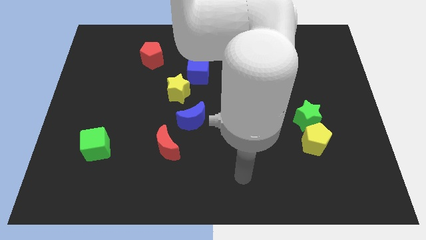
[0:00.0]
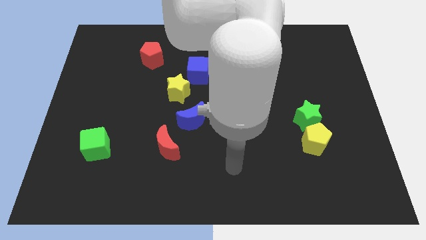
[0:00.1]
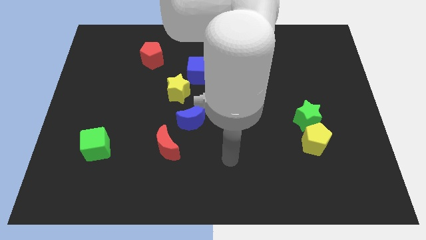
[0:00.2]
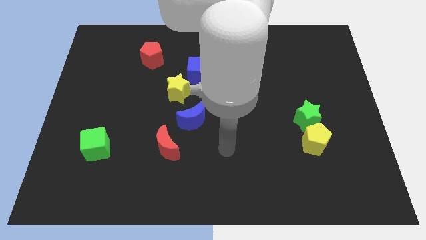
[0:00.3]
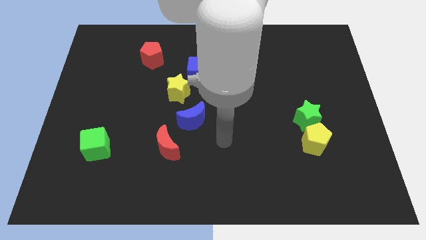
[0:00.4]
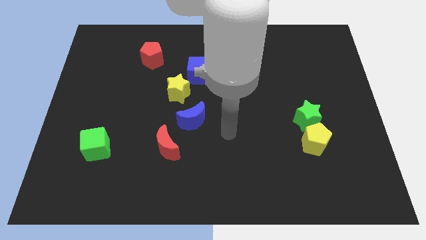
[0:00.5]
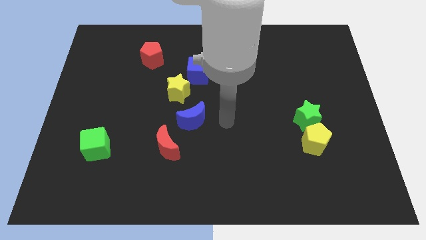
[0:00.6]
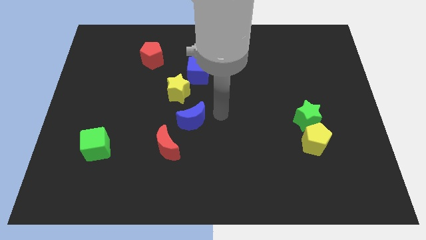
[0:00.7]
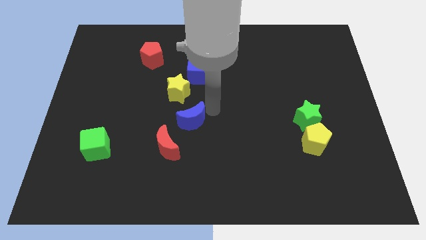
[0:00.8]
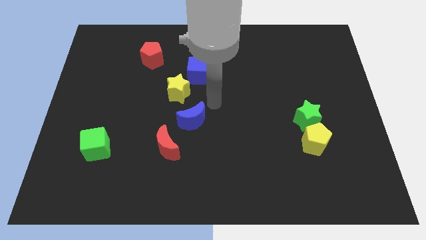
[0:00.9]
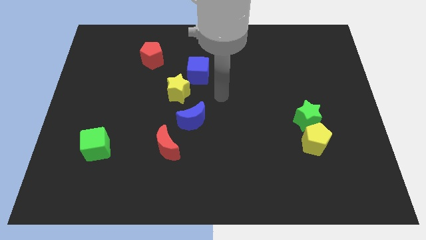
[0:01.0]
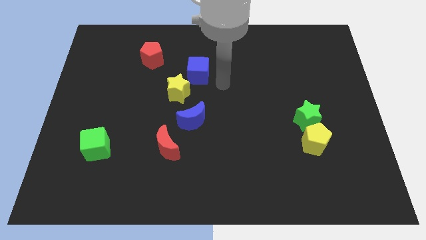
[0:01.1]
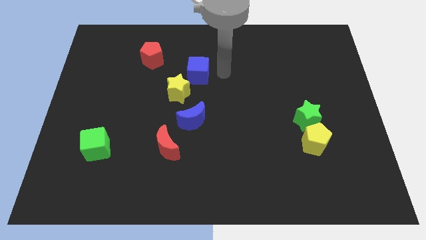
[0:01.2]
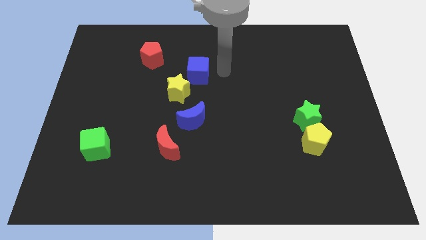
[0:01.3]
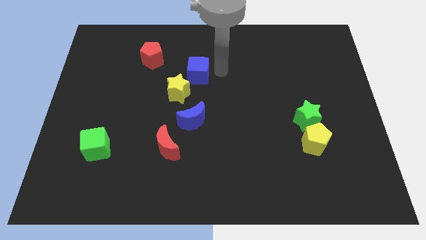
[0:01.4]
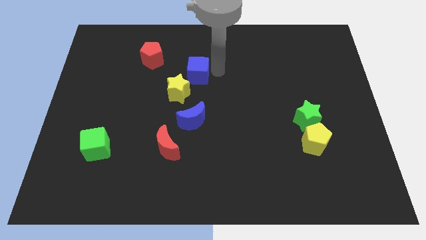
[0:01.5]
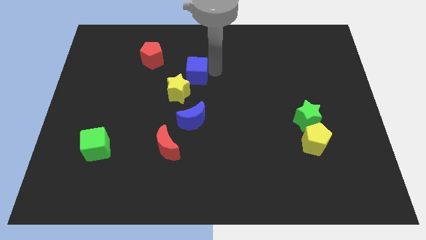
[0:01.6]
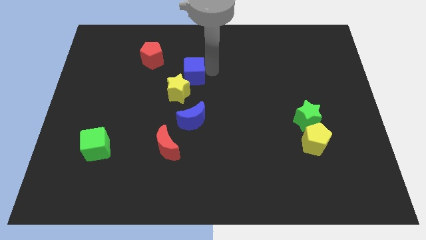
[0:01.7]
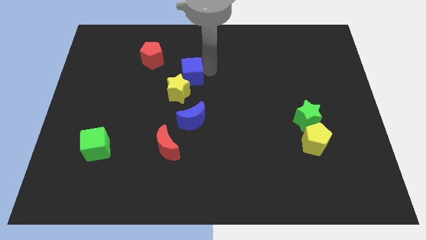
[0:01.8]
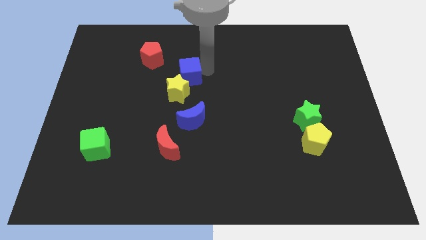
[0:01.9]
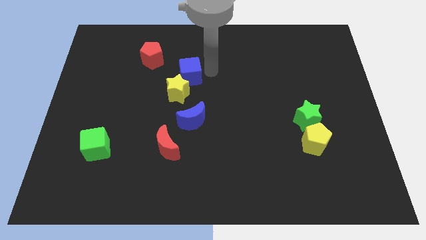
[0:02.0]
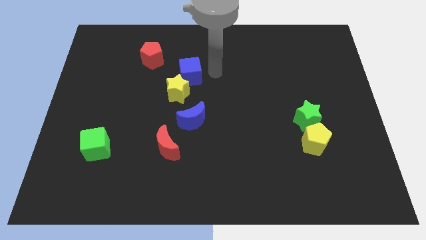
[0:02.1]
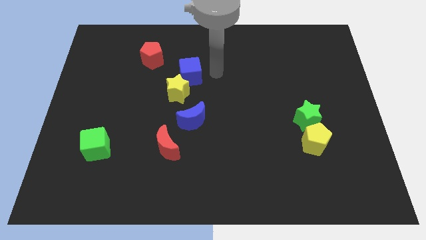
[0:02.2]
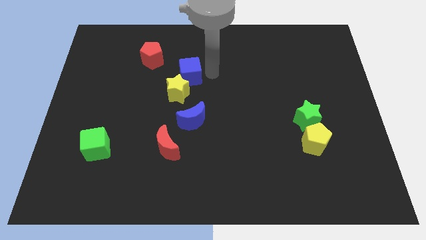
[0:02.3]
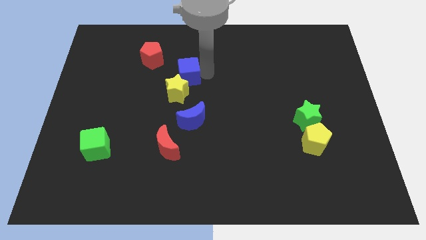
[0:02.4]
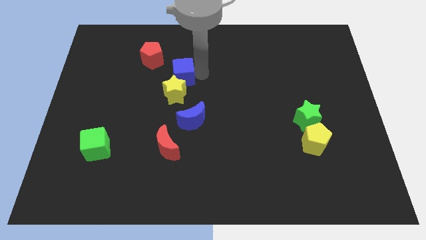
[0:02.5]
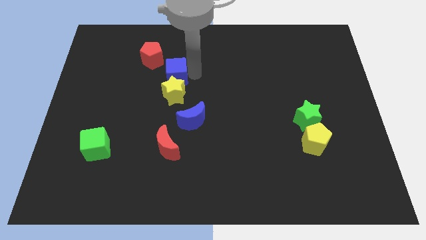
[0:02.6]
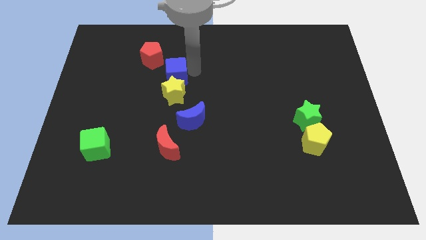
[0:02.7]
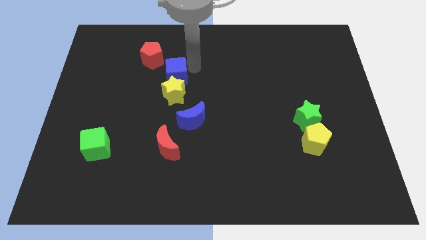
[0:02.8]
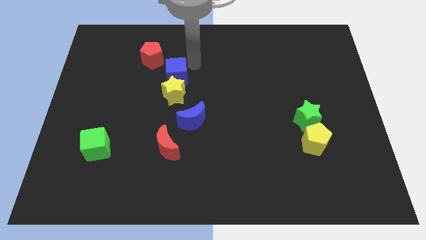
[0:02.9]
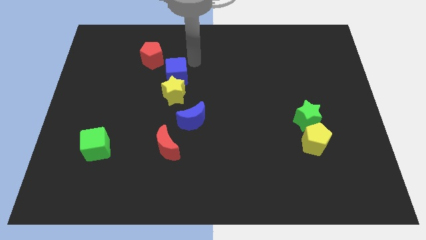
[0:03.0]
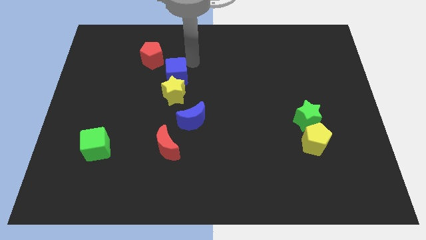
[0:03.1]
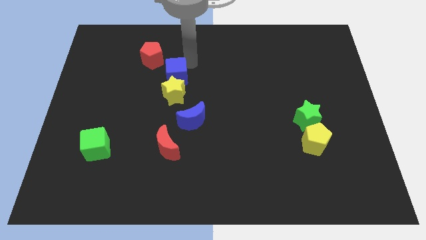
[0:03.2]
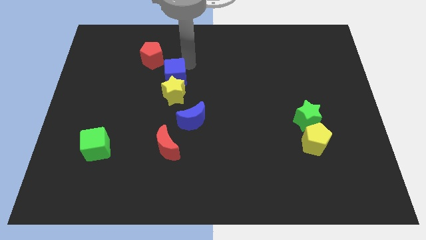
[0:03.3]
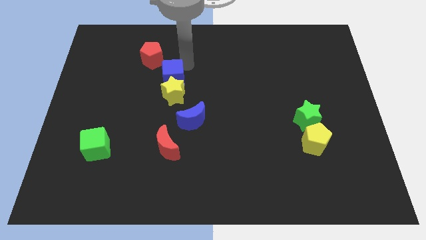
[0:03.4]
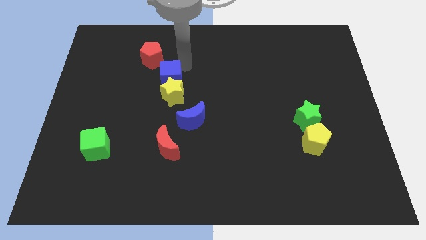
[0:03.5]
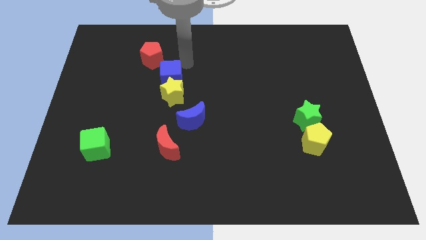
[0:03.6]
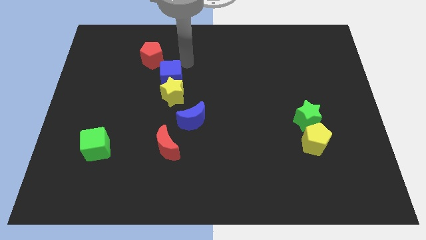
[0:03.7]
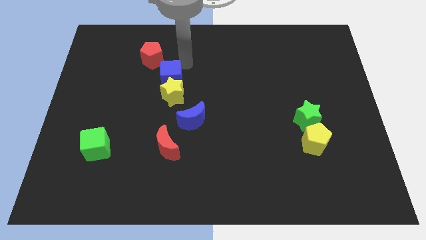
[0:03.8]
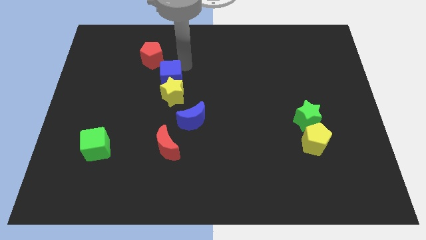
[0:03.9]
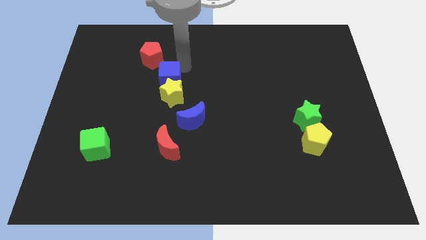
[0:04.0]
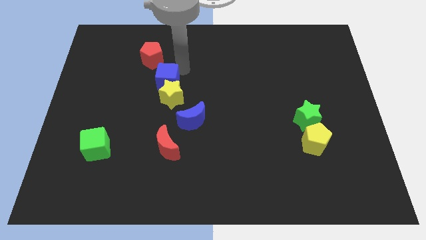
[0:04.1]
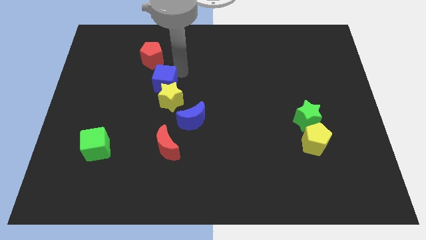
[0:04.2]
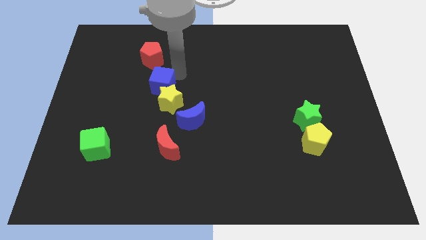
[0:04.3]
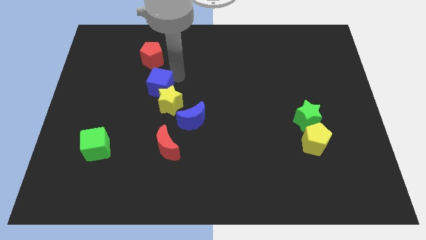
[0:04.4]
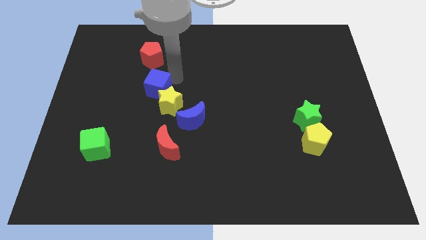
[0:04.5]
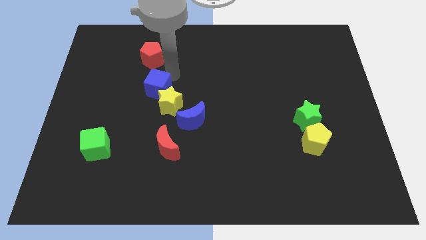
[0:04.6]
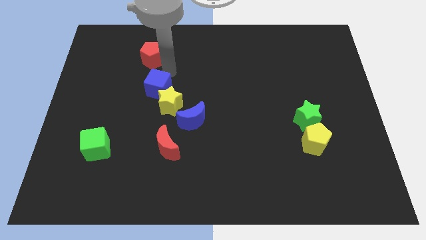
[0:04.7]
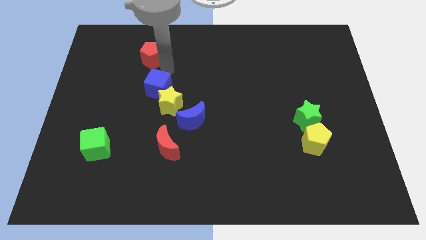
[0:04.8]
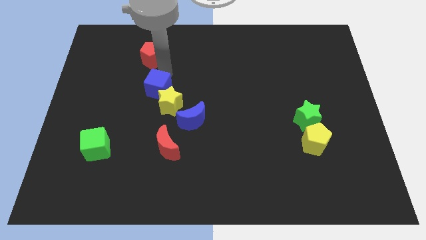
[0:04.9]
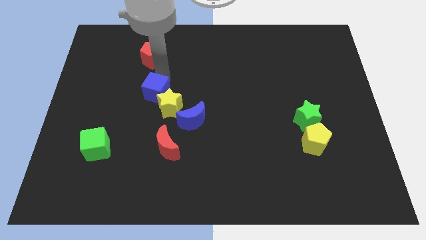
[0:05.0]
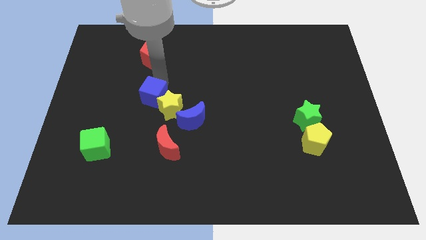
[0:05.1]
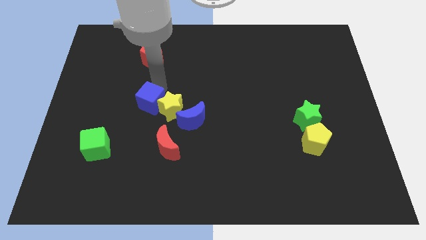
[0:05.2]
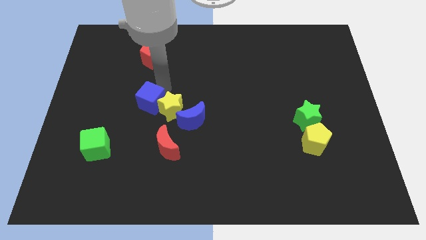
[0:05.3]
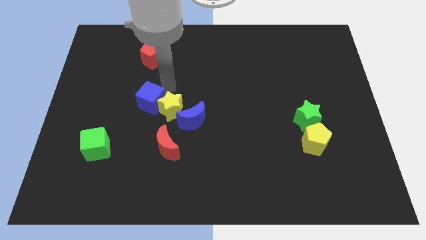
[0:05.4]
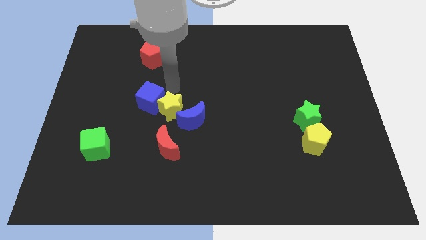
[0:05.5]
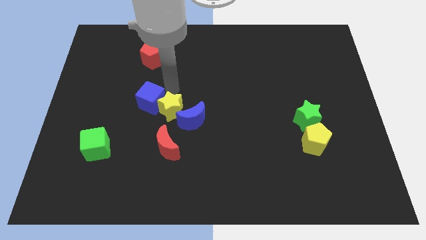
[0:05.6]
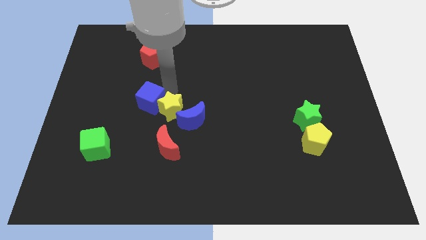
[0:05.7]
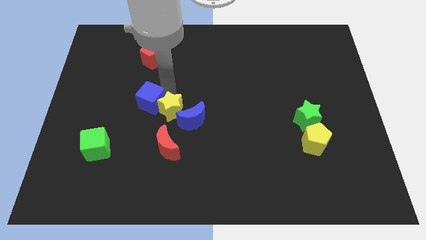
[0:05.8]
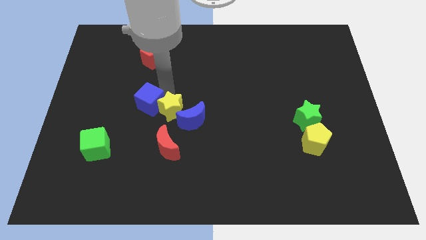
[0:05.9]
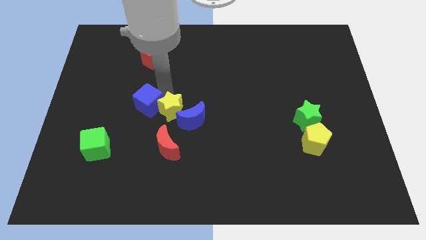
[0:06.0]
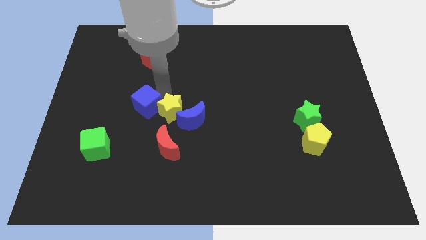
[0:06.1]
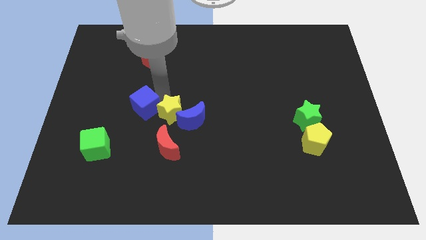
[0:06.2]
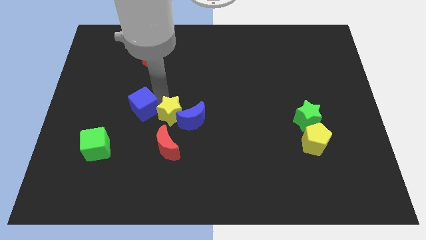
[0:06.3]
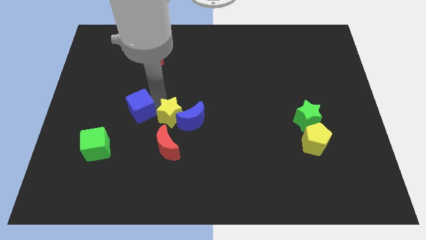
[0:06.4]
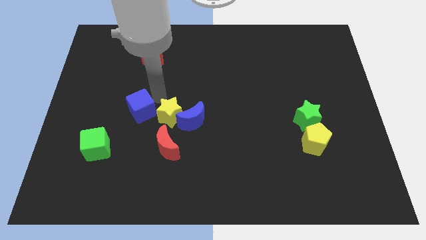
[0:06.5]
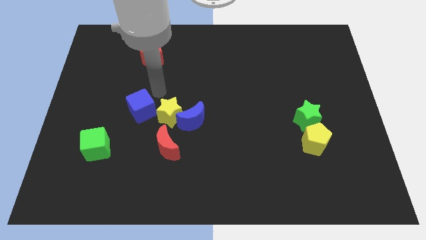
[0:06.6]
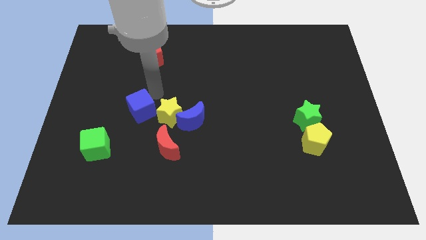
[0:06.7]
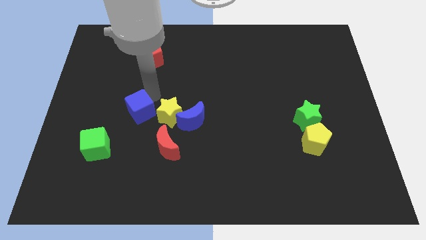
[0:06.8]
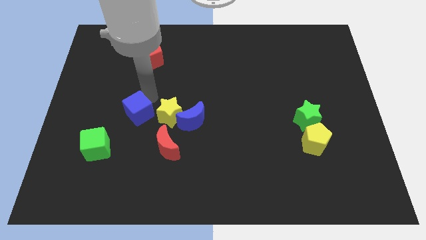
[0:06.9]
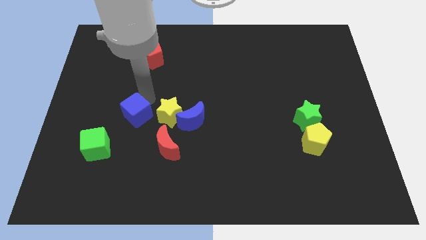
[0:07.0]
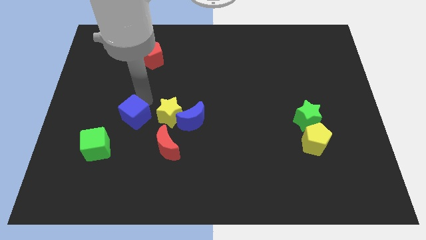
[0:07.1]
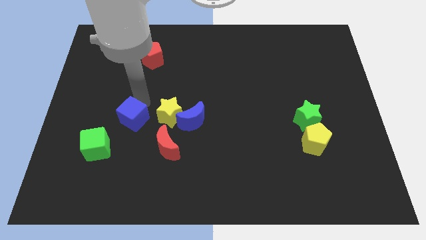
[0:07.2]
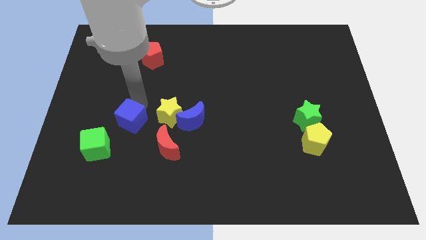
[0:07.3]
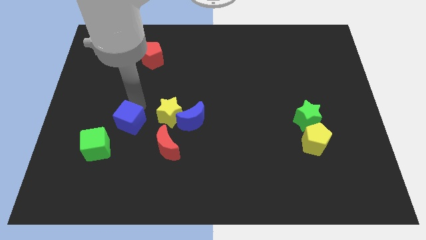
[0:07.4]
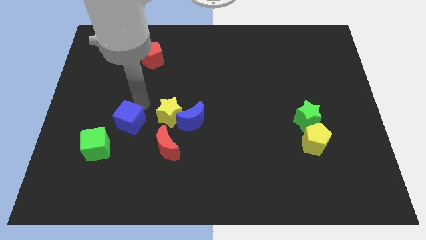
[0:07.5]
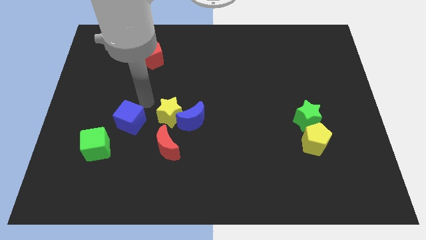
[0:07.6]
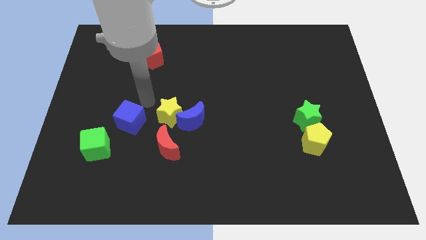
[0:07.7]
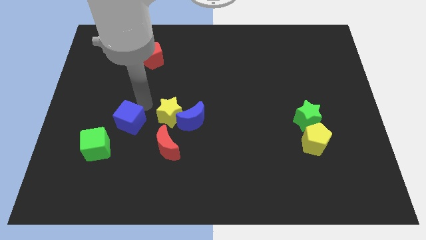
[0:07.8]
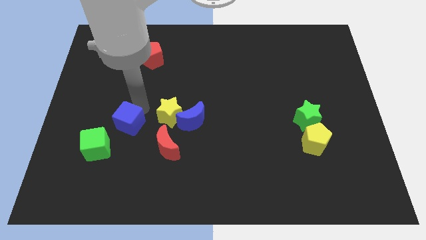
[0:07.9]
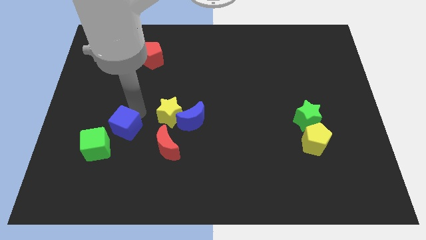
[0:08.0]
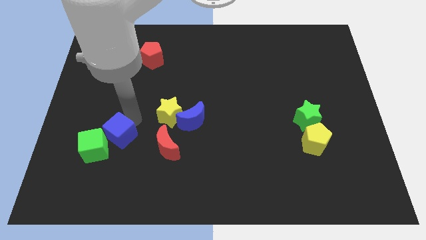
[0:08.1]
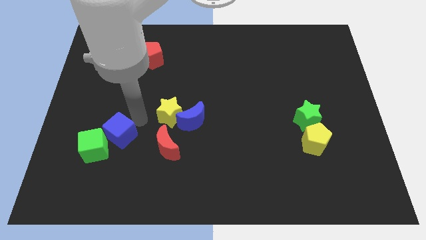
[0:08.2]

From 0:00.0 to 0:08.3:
put the blue cube close to the green cube
